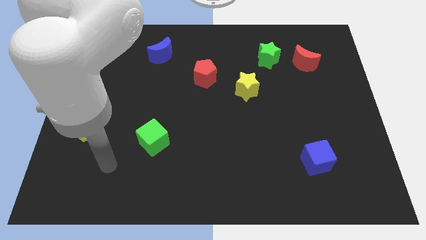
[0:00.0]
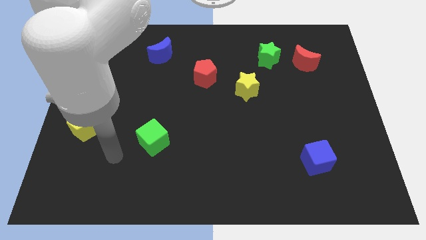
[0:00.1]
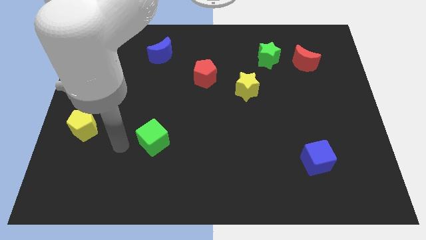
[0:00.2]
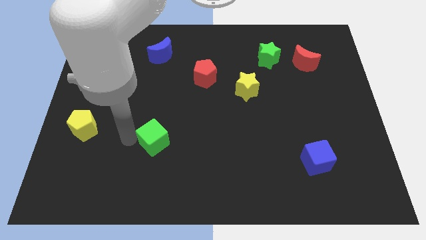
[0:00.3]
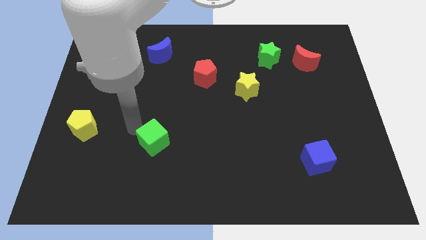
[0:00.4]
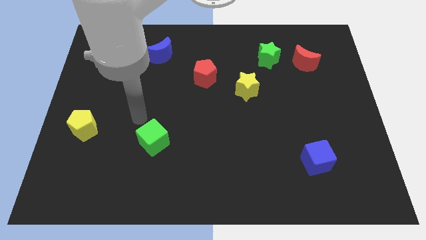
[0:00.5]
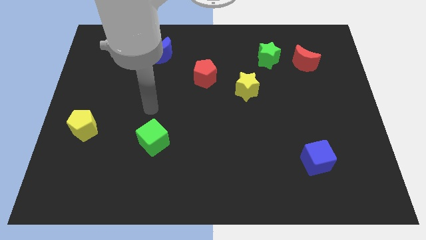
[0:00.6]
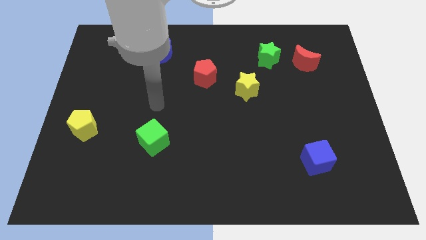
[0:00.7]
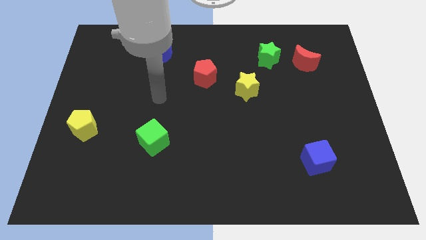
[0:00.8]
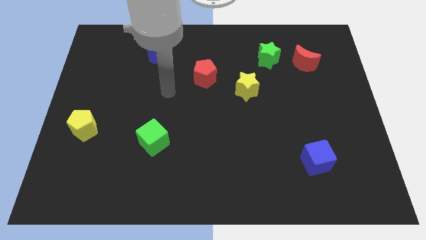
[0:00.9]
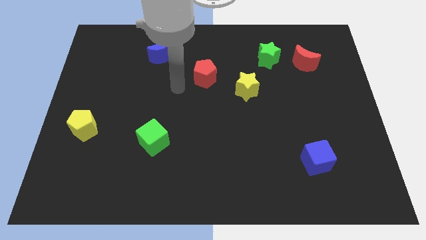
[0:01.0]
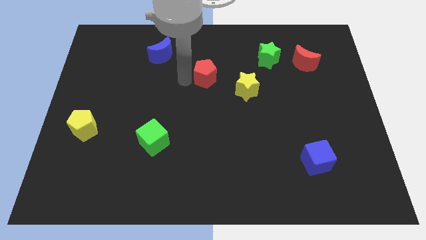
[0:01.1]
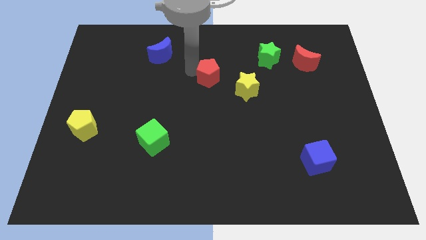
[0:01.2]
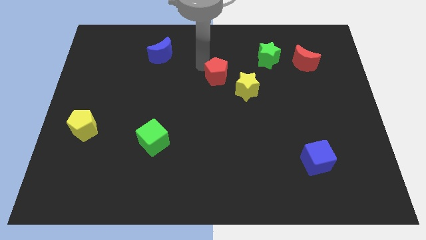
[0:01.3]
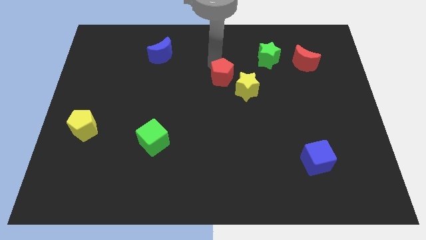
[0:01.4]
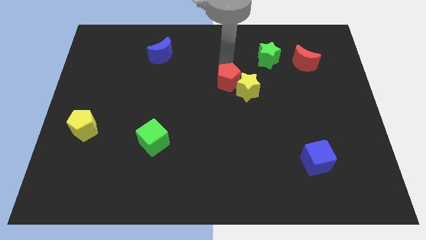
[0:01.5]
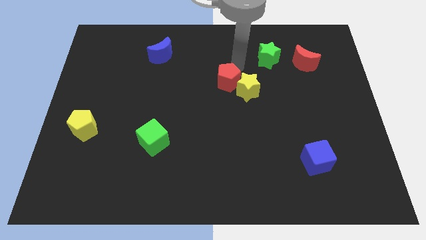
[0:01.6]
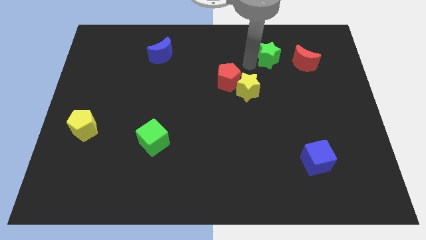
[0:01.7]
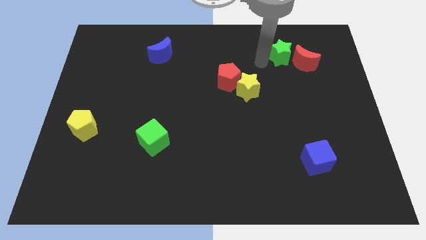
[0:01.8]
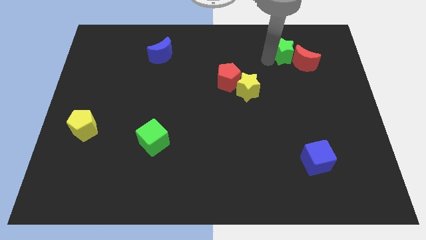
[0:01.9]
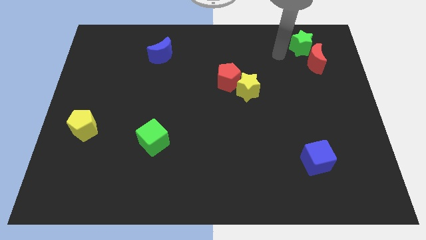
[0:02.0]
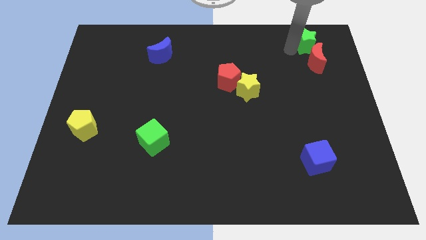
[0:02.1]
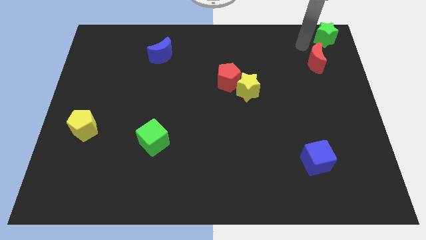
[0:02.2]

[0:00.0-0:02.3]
move the red moon away from the green star

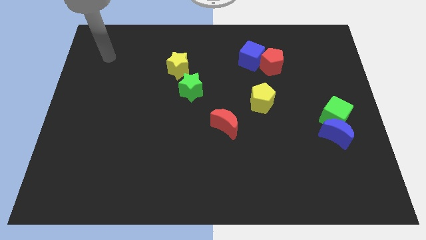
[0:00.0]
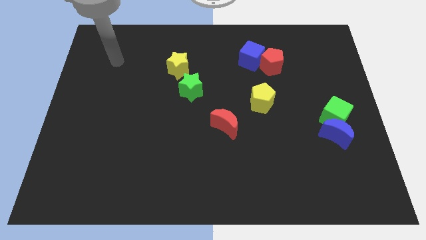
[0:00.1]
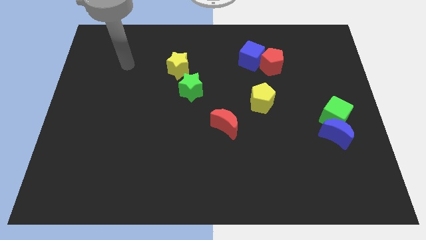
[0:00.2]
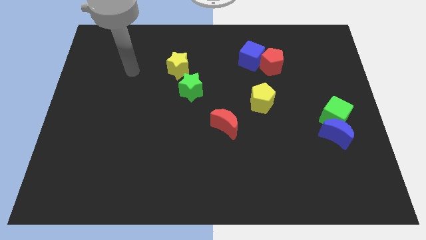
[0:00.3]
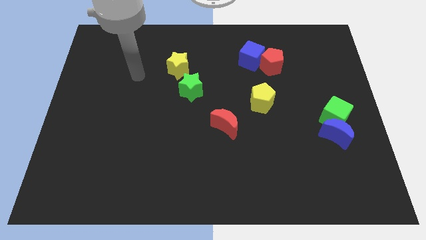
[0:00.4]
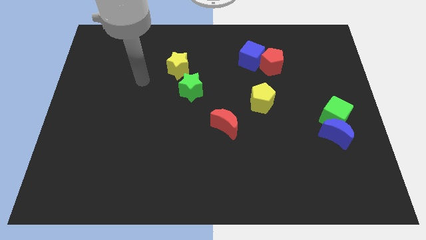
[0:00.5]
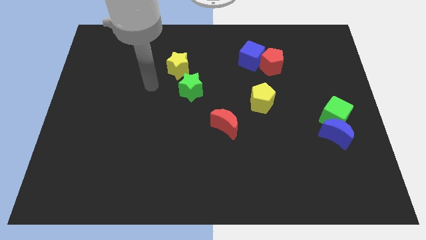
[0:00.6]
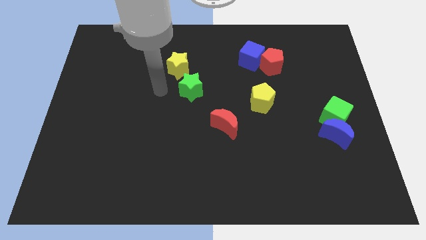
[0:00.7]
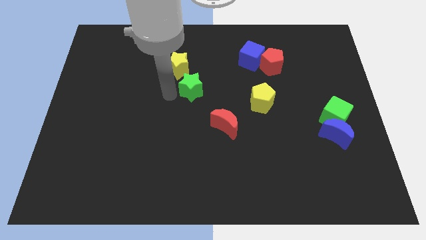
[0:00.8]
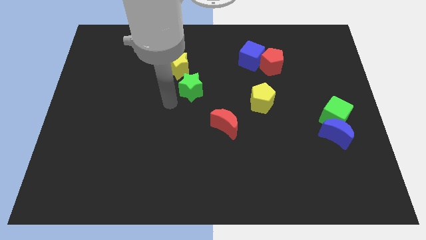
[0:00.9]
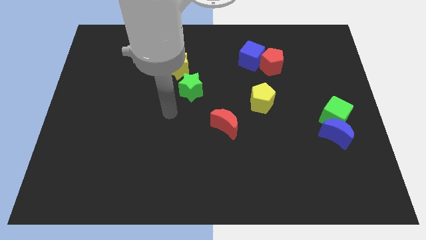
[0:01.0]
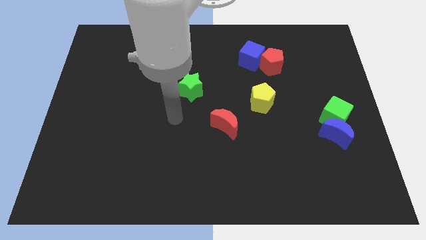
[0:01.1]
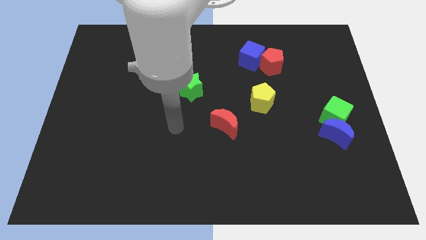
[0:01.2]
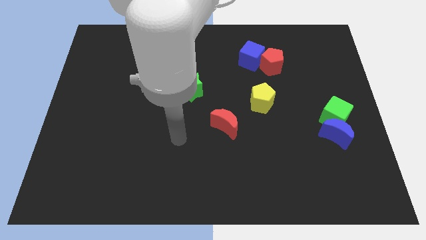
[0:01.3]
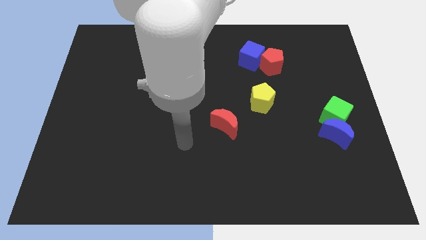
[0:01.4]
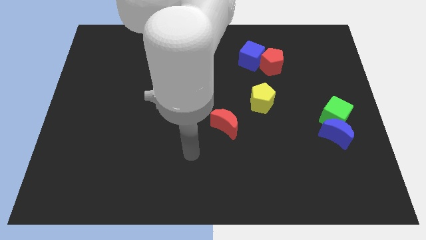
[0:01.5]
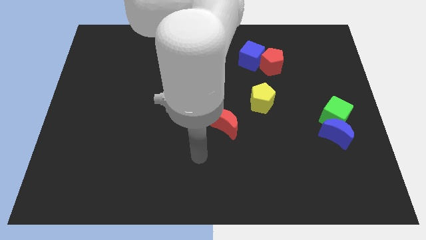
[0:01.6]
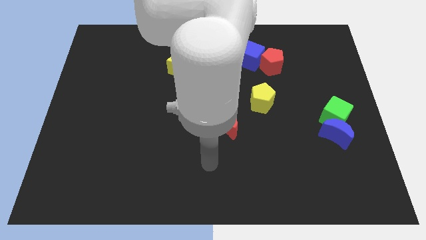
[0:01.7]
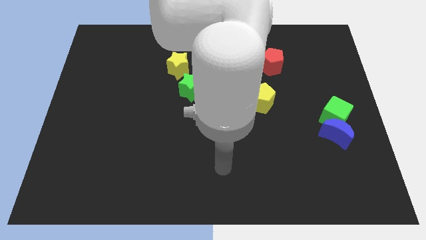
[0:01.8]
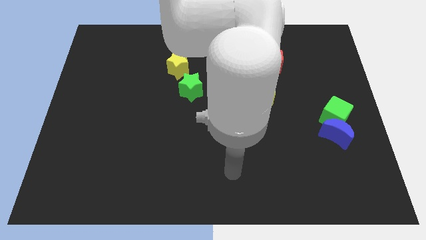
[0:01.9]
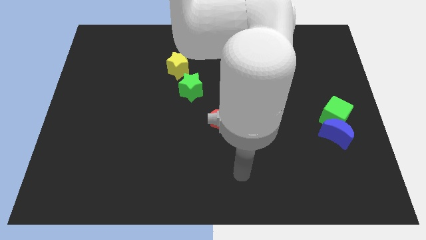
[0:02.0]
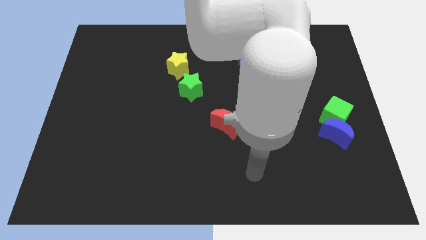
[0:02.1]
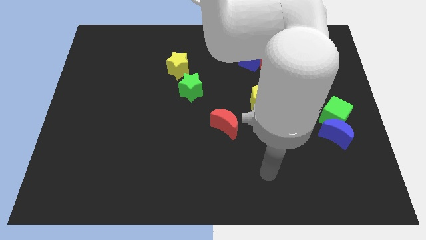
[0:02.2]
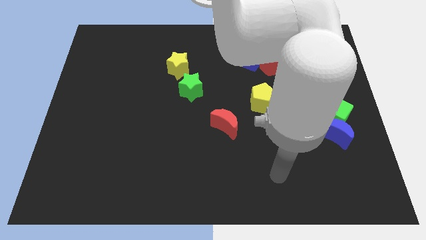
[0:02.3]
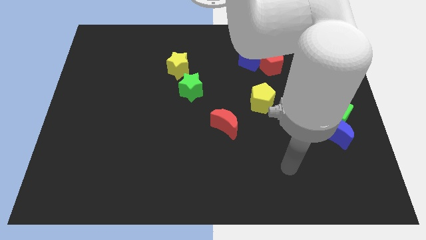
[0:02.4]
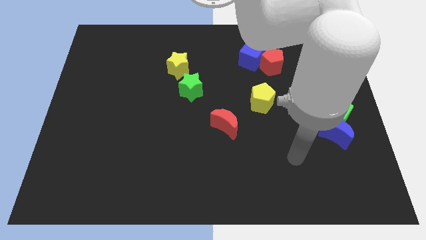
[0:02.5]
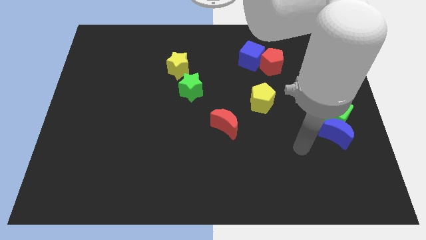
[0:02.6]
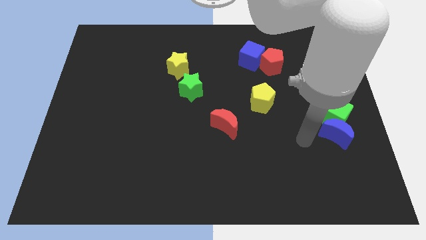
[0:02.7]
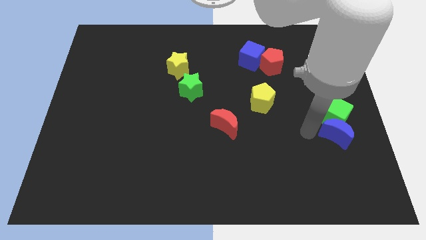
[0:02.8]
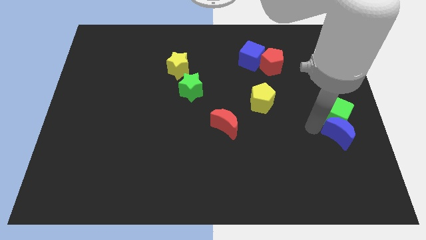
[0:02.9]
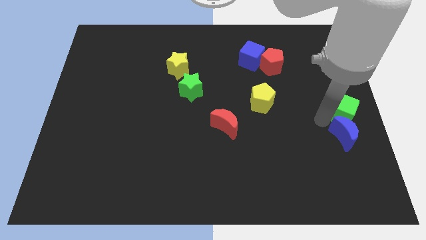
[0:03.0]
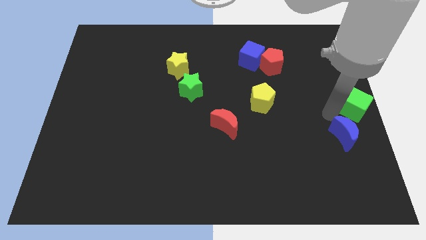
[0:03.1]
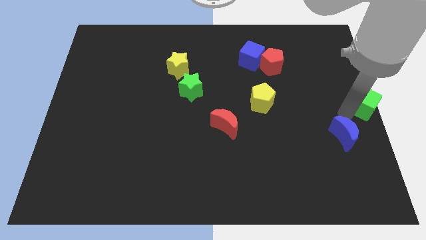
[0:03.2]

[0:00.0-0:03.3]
pull the blue moon apart from the green cube

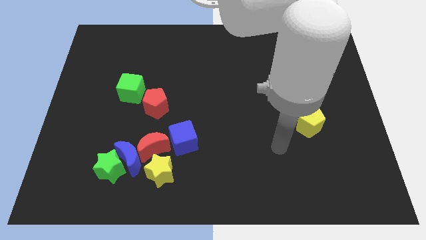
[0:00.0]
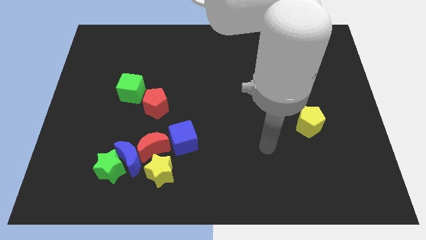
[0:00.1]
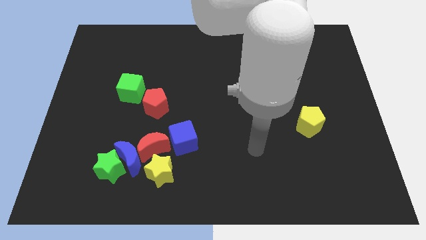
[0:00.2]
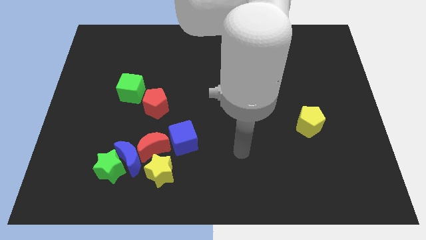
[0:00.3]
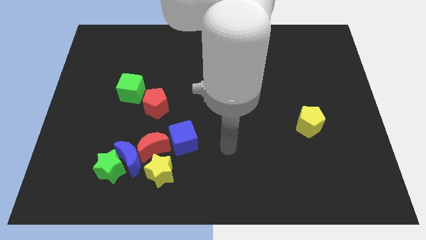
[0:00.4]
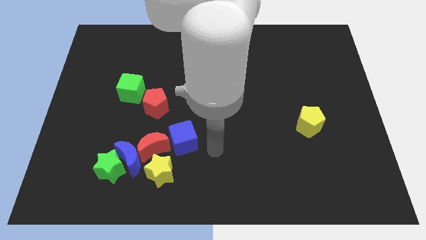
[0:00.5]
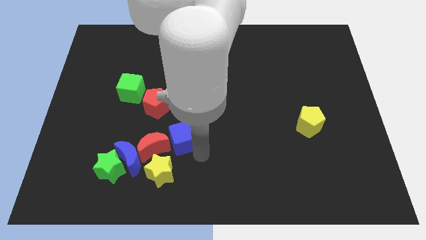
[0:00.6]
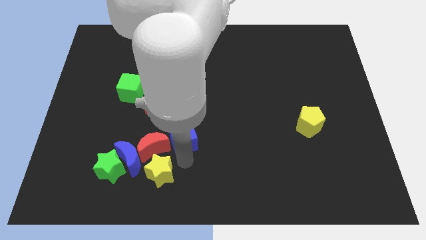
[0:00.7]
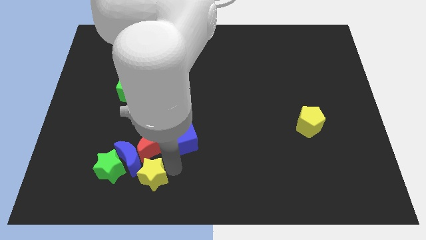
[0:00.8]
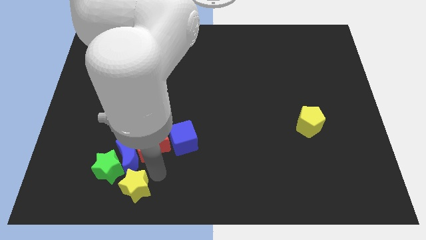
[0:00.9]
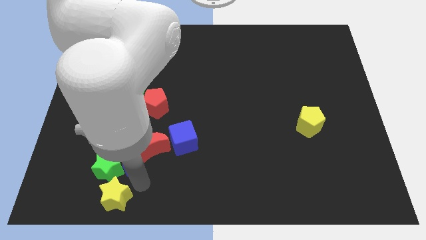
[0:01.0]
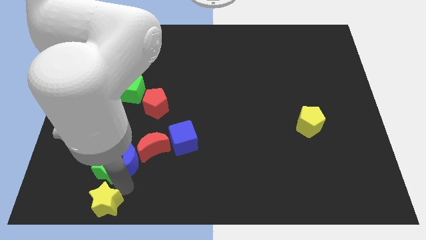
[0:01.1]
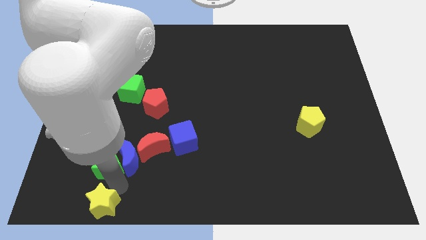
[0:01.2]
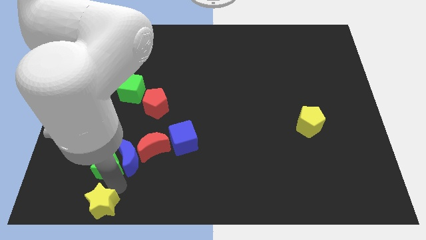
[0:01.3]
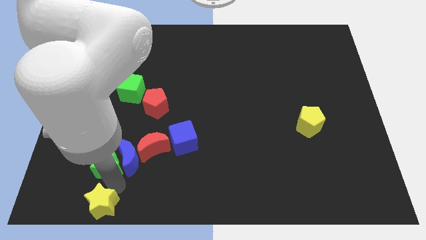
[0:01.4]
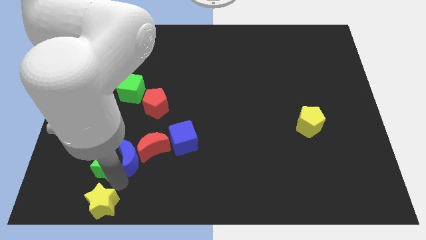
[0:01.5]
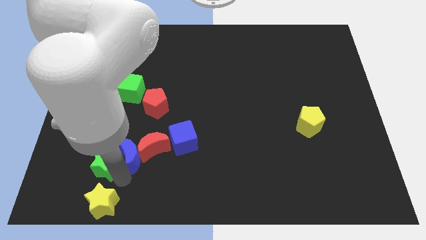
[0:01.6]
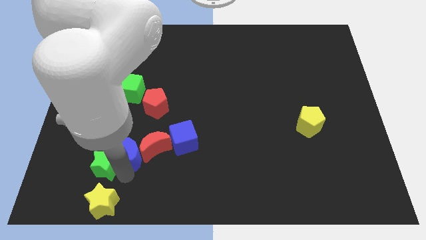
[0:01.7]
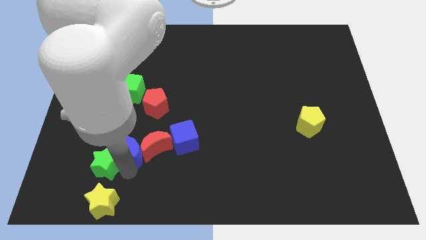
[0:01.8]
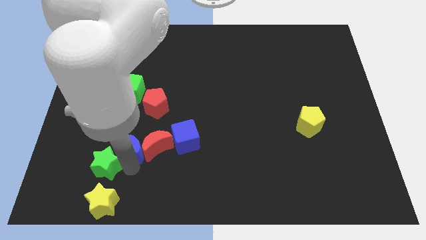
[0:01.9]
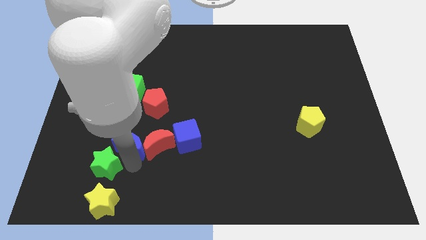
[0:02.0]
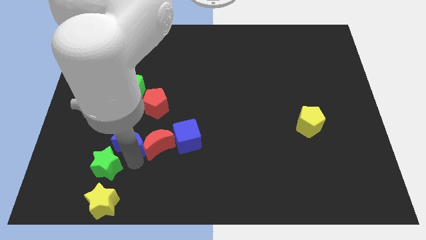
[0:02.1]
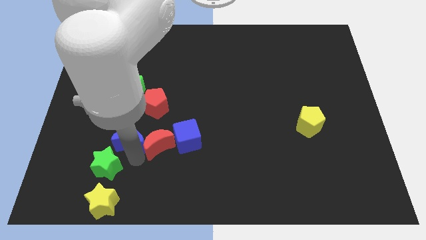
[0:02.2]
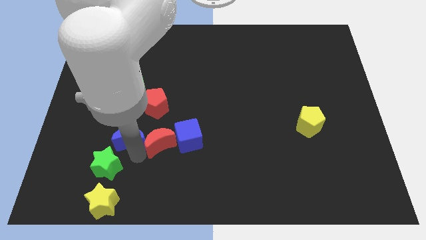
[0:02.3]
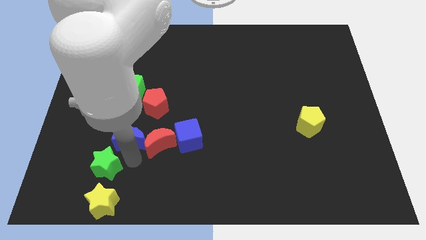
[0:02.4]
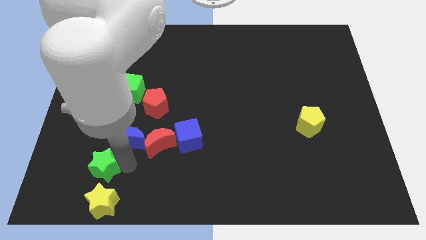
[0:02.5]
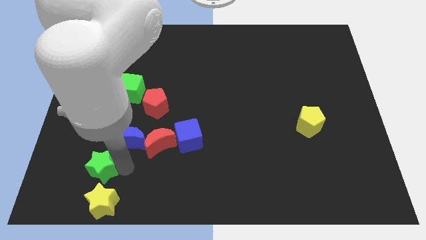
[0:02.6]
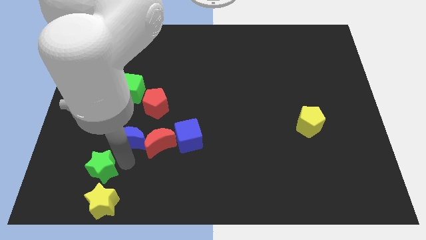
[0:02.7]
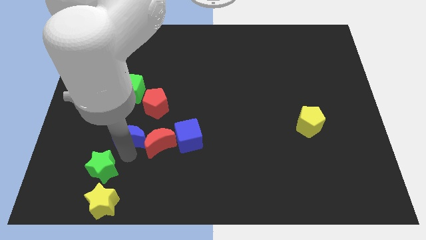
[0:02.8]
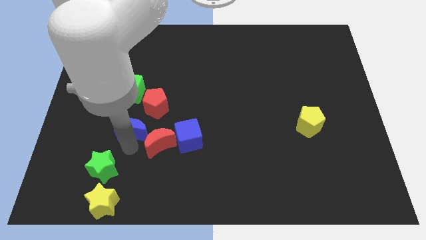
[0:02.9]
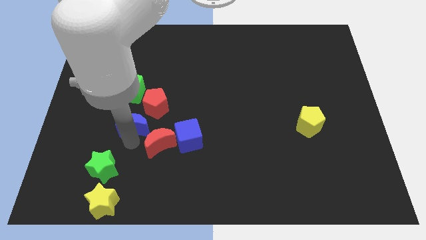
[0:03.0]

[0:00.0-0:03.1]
pull the blue moon apart from the clump

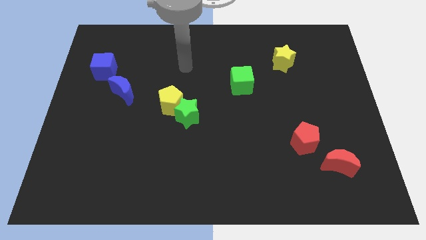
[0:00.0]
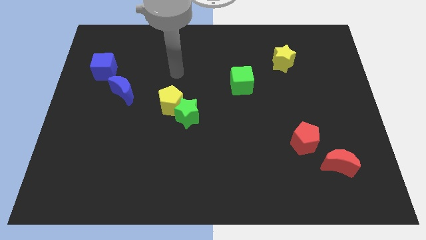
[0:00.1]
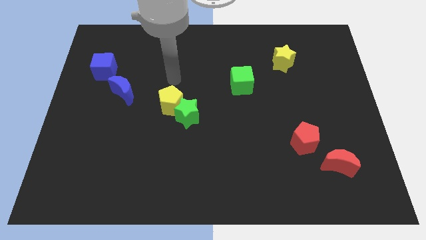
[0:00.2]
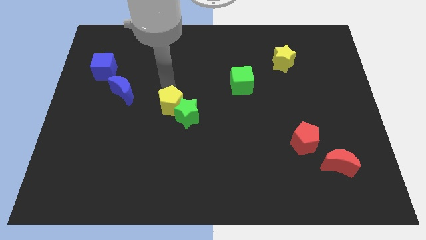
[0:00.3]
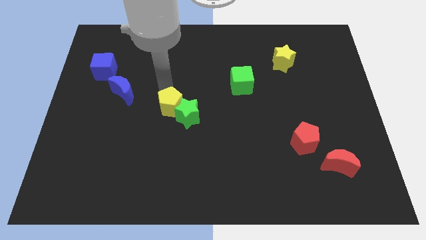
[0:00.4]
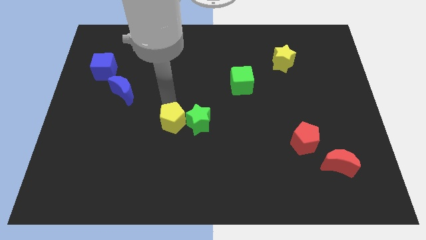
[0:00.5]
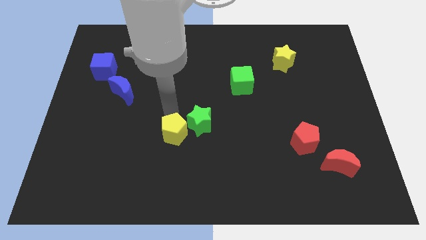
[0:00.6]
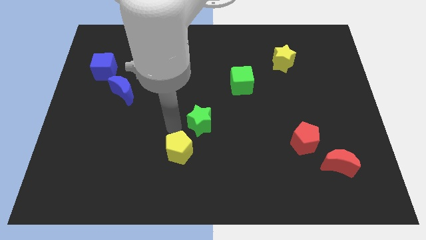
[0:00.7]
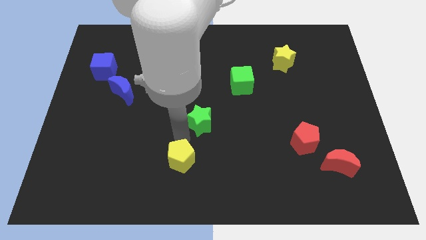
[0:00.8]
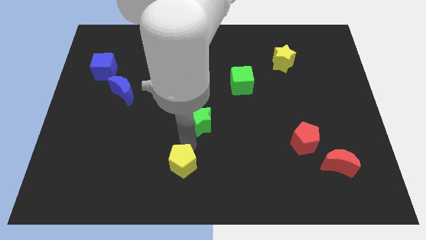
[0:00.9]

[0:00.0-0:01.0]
move the green star away from the yellow pentagon
